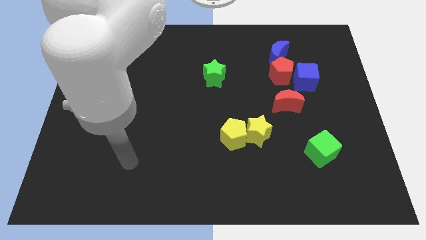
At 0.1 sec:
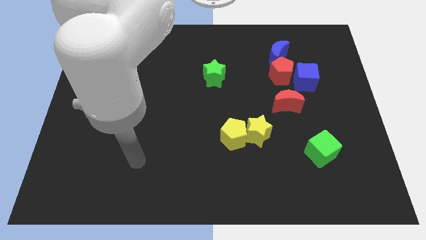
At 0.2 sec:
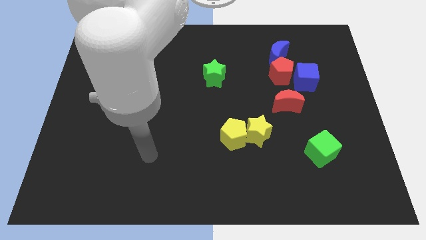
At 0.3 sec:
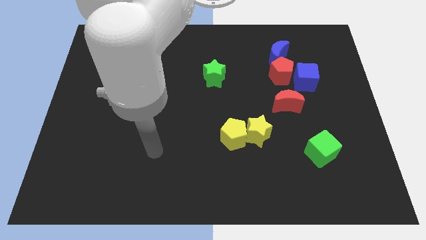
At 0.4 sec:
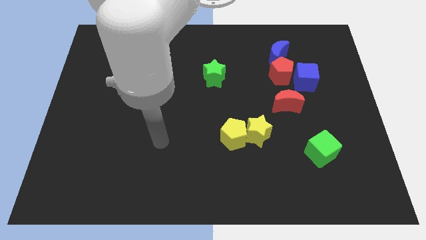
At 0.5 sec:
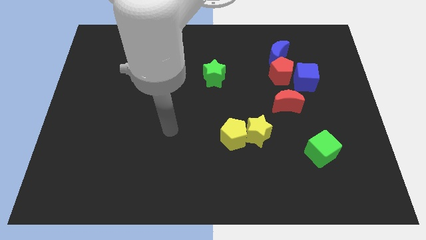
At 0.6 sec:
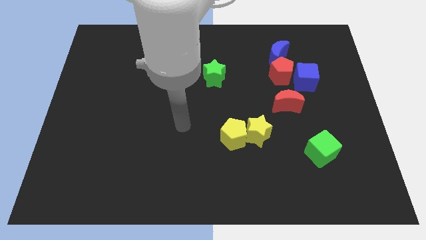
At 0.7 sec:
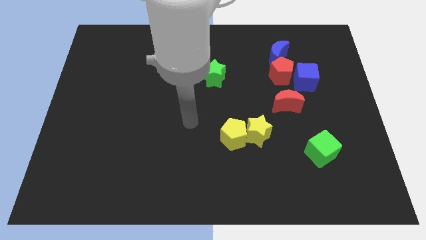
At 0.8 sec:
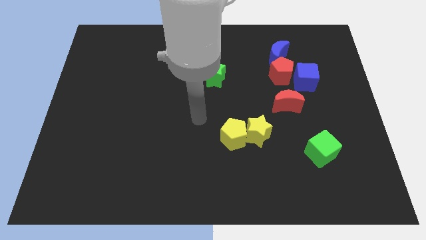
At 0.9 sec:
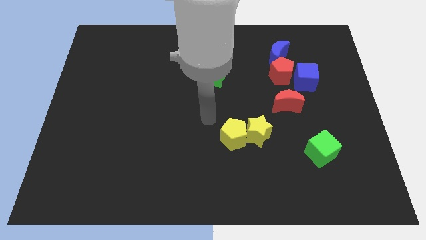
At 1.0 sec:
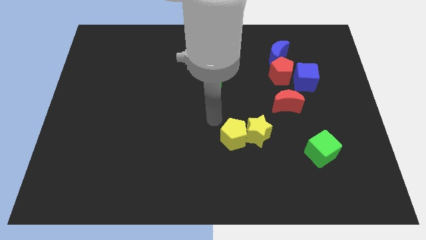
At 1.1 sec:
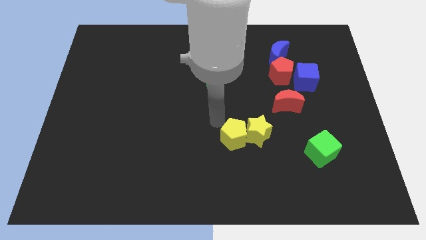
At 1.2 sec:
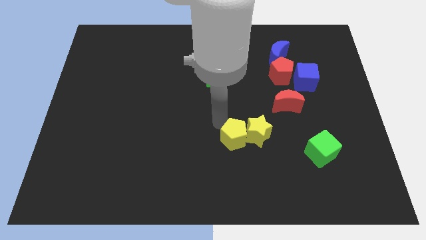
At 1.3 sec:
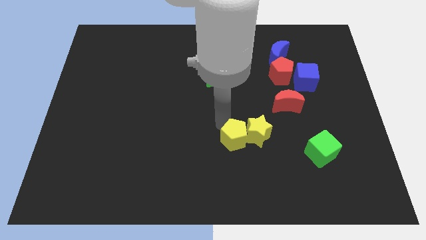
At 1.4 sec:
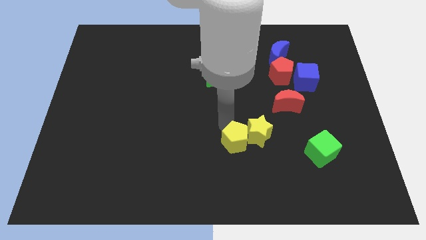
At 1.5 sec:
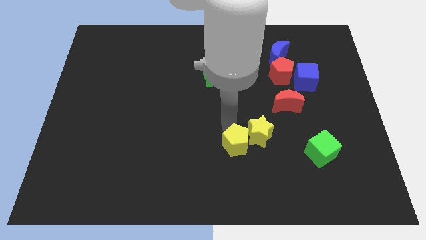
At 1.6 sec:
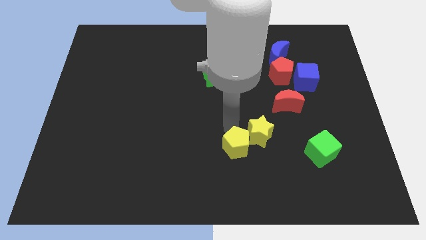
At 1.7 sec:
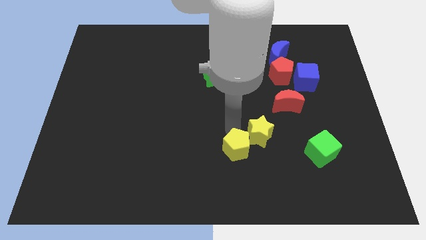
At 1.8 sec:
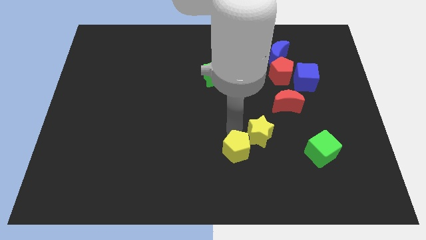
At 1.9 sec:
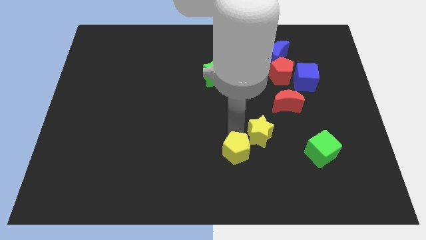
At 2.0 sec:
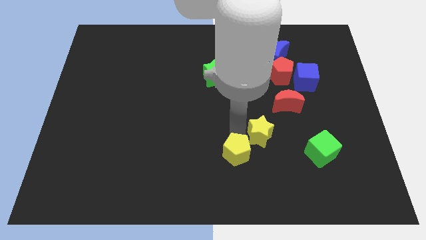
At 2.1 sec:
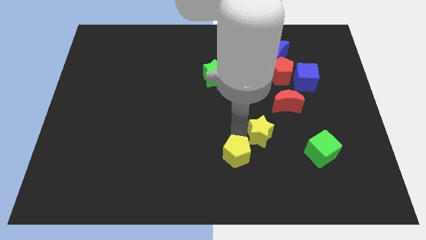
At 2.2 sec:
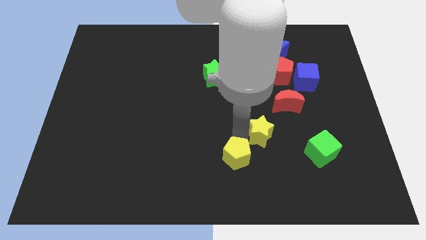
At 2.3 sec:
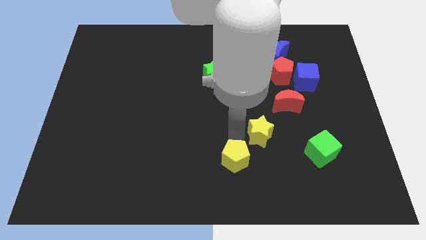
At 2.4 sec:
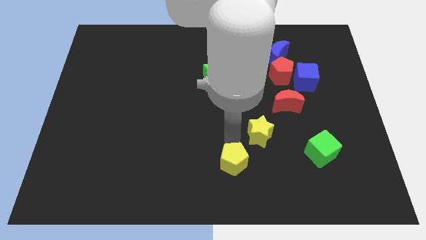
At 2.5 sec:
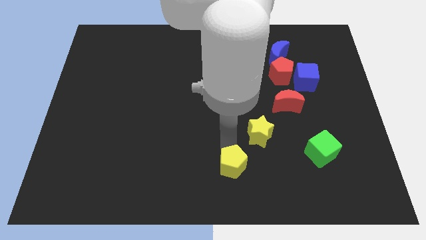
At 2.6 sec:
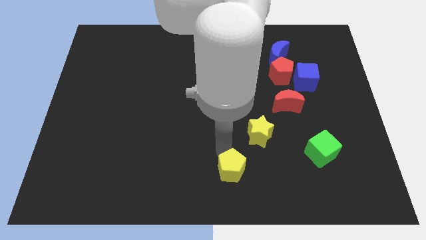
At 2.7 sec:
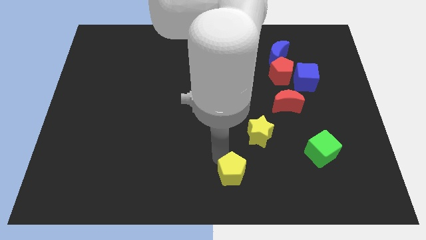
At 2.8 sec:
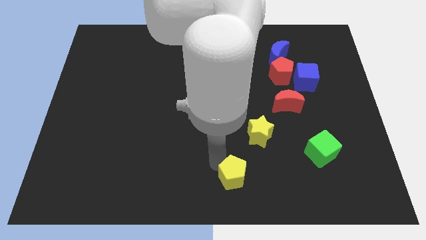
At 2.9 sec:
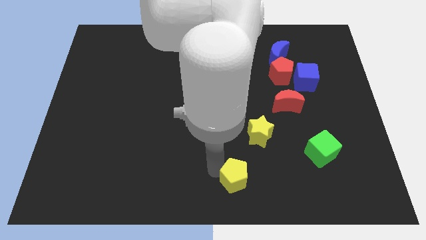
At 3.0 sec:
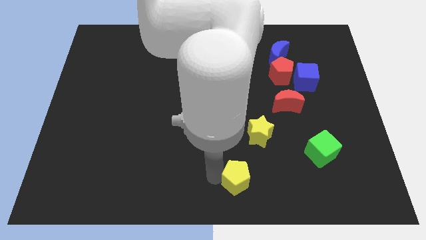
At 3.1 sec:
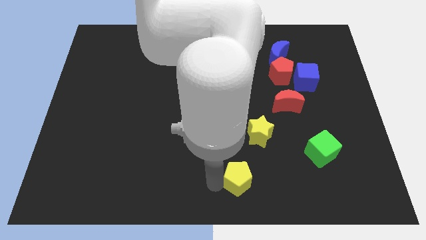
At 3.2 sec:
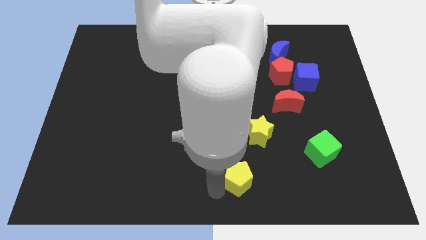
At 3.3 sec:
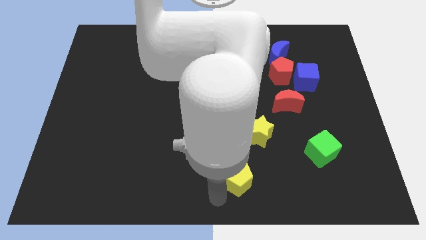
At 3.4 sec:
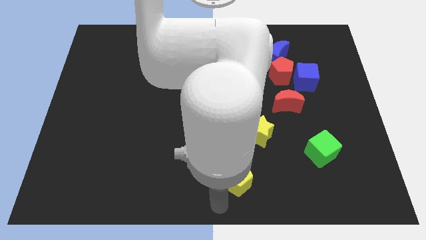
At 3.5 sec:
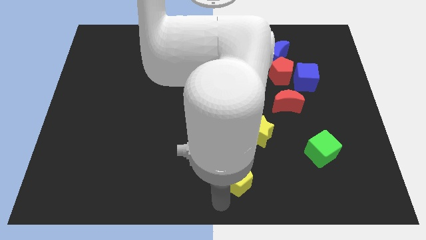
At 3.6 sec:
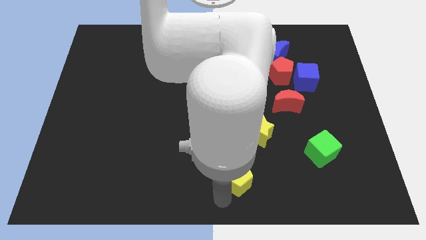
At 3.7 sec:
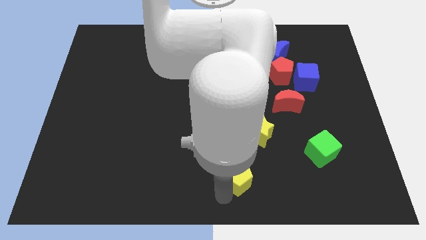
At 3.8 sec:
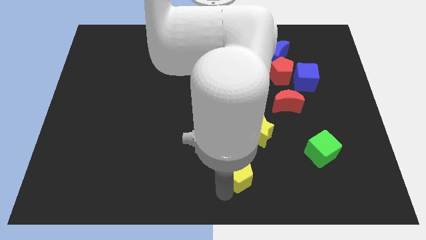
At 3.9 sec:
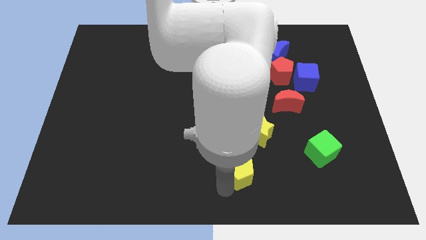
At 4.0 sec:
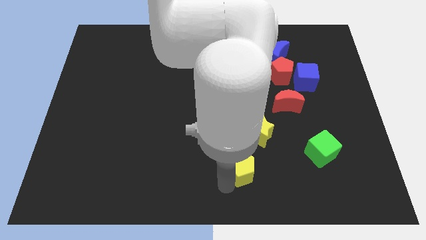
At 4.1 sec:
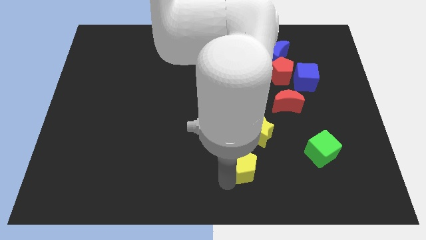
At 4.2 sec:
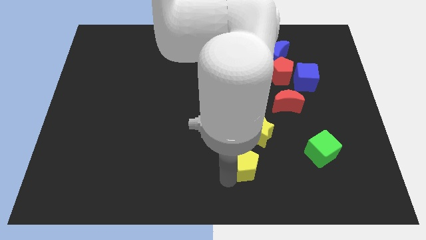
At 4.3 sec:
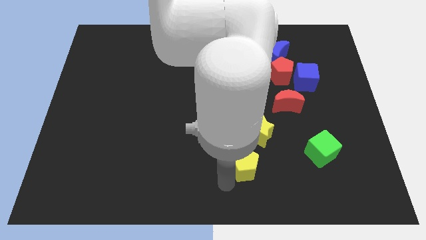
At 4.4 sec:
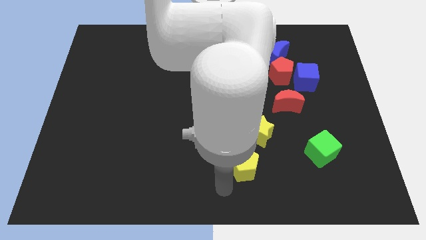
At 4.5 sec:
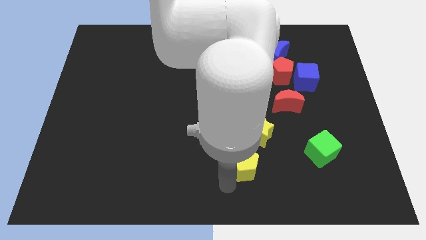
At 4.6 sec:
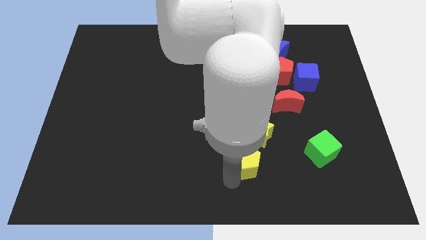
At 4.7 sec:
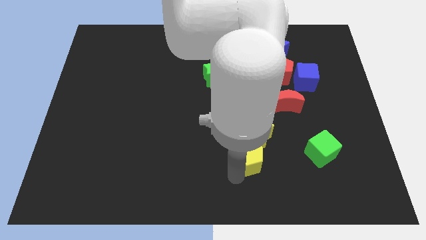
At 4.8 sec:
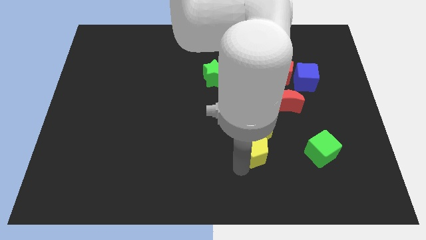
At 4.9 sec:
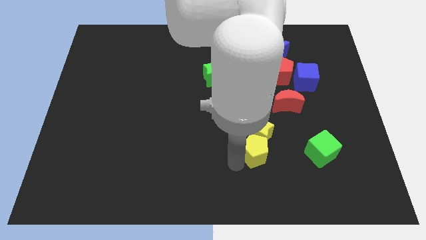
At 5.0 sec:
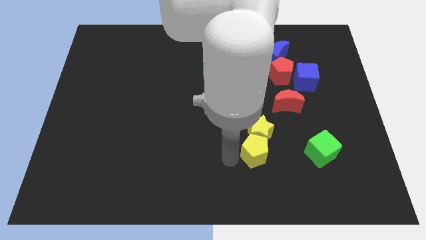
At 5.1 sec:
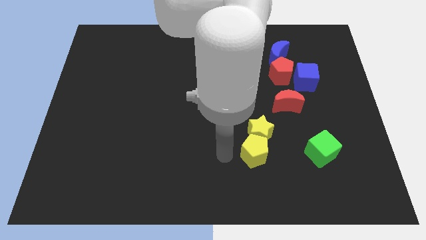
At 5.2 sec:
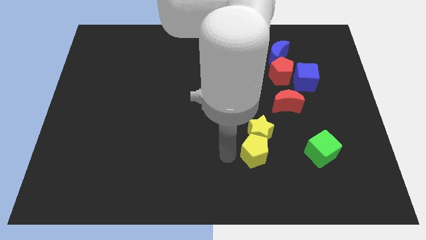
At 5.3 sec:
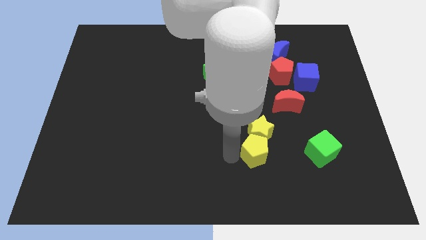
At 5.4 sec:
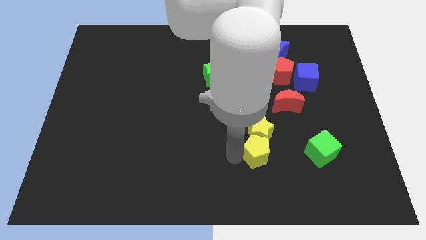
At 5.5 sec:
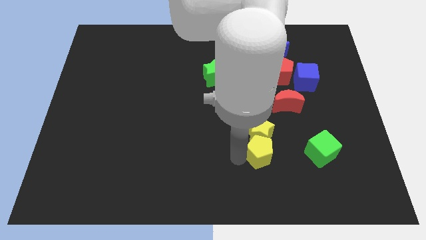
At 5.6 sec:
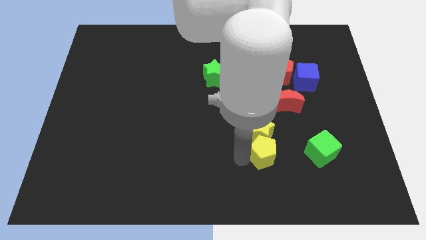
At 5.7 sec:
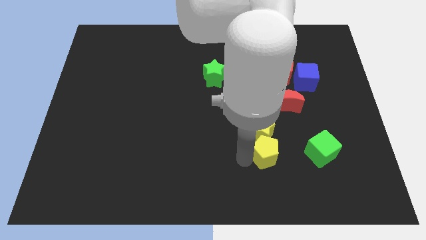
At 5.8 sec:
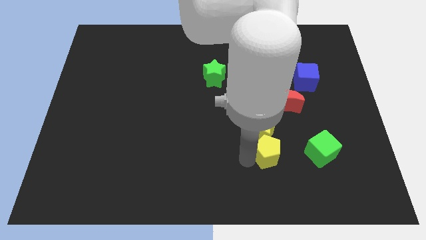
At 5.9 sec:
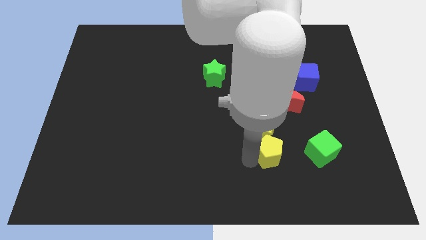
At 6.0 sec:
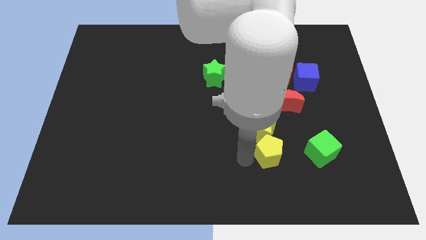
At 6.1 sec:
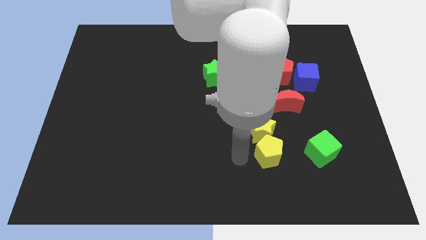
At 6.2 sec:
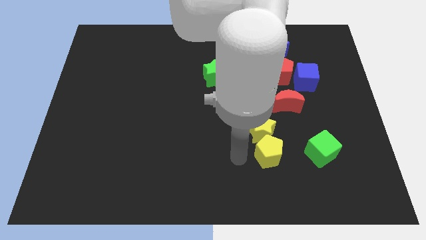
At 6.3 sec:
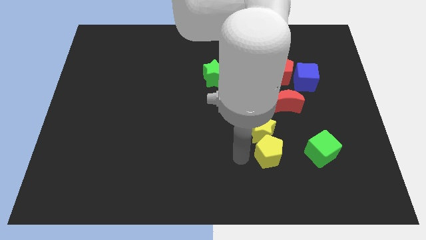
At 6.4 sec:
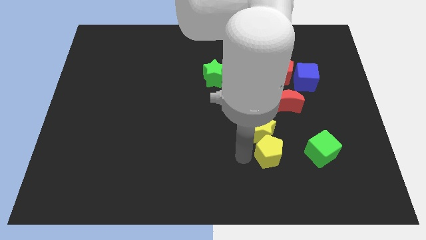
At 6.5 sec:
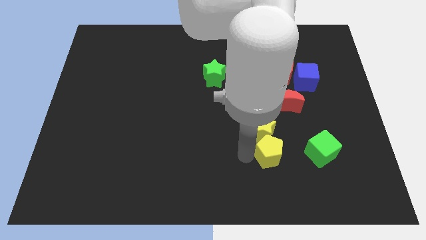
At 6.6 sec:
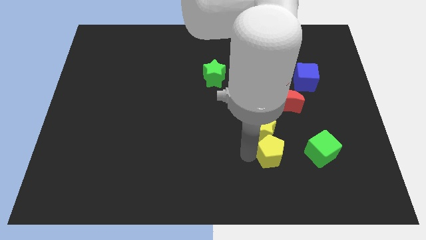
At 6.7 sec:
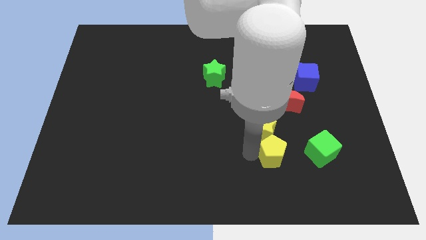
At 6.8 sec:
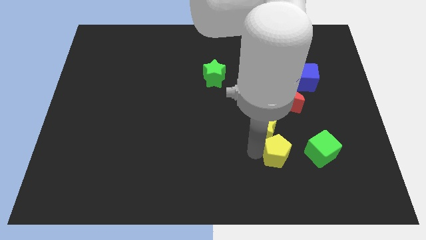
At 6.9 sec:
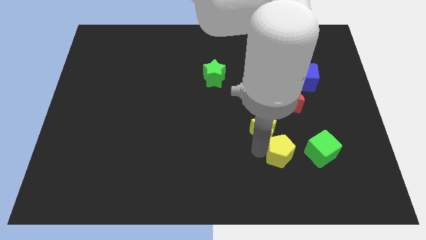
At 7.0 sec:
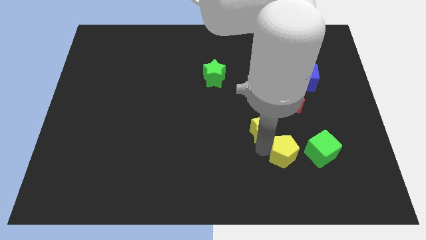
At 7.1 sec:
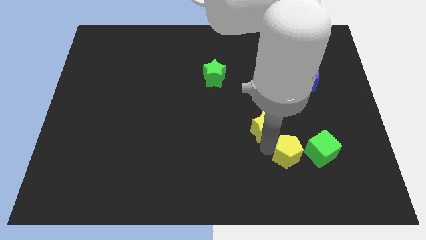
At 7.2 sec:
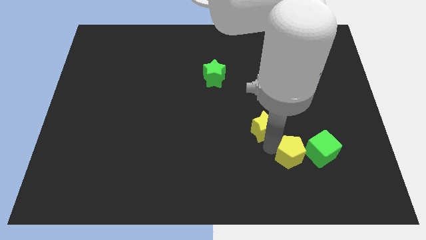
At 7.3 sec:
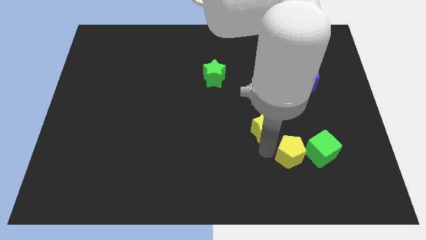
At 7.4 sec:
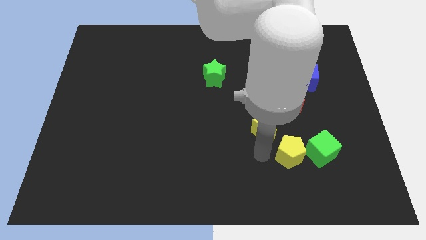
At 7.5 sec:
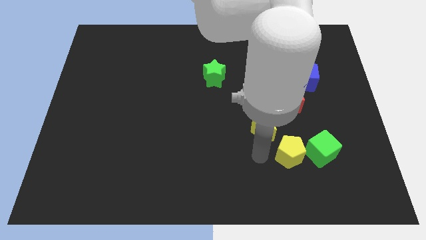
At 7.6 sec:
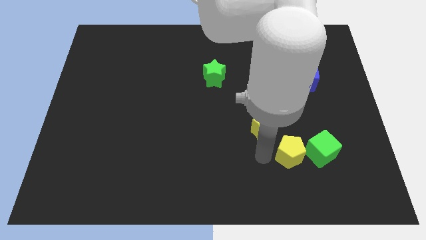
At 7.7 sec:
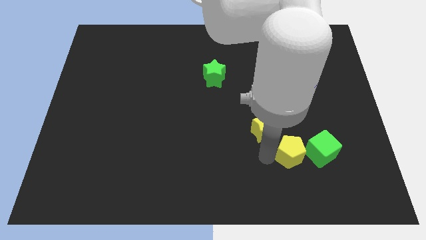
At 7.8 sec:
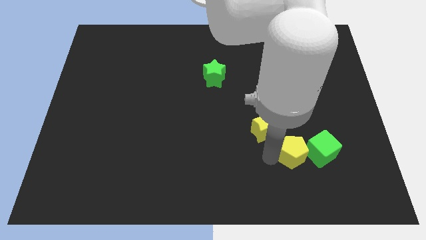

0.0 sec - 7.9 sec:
move the yellow pentagon next to the green cube
